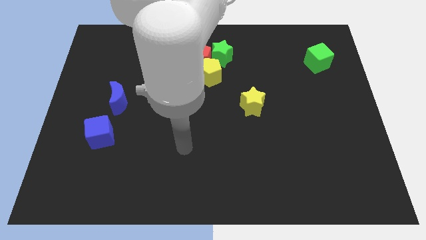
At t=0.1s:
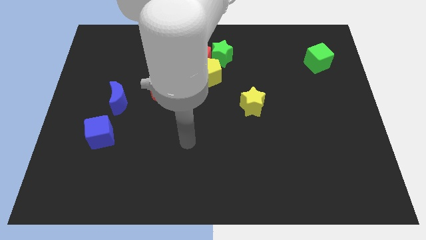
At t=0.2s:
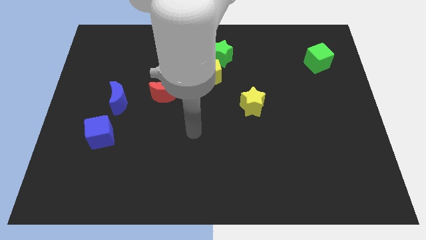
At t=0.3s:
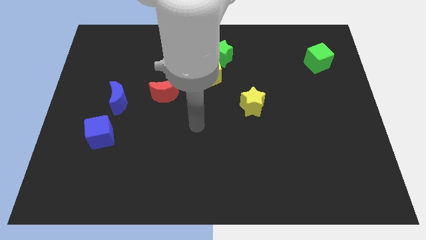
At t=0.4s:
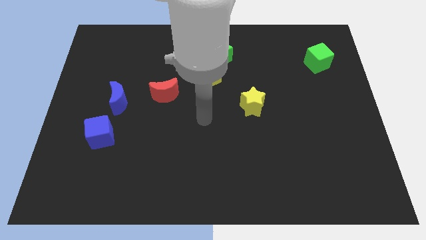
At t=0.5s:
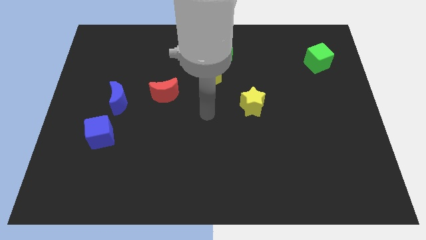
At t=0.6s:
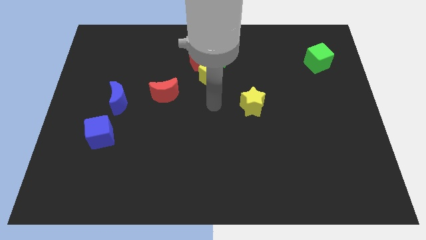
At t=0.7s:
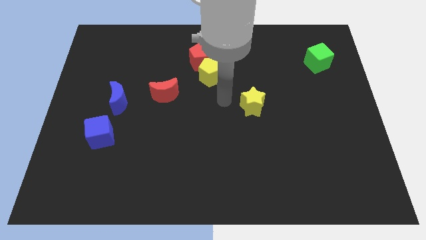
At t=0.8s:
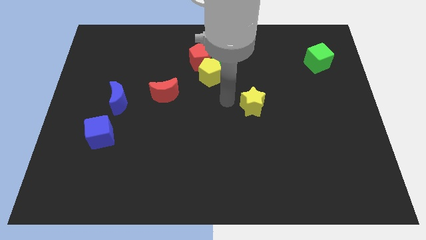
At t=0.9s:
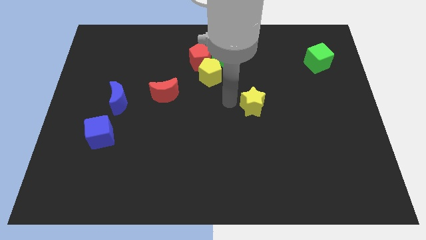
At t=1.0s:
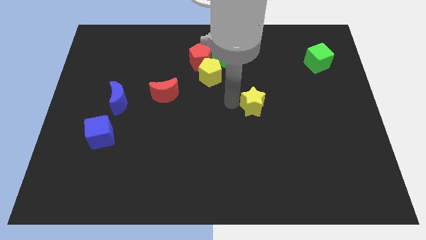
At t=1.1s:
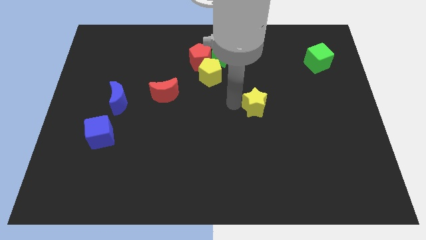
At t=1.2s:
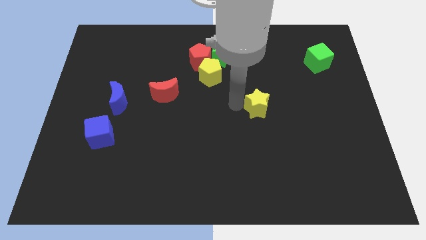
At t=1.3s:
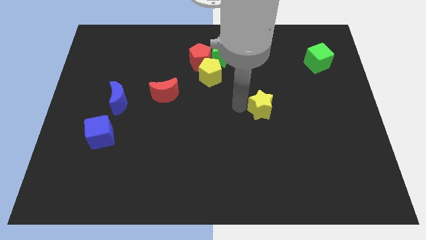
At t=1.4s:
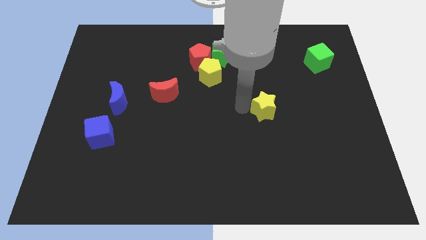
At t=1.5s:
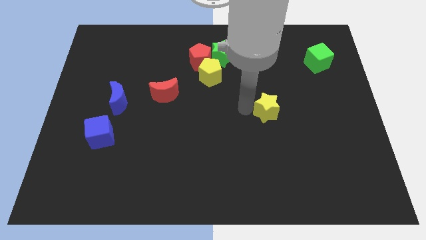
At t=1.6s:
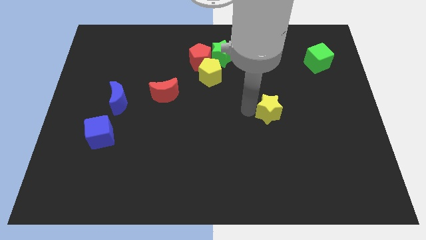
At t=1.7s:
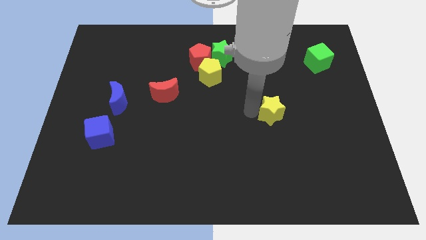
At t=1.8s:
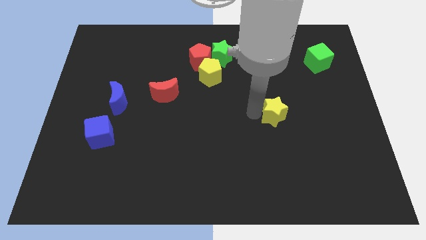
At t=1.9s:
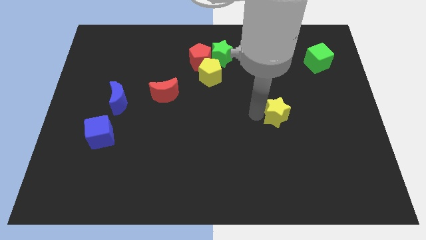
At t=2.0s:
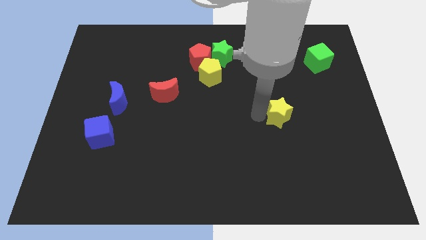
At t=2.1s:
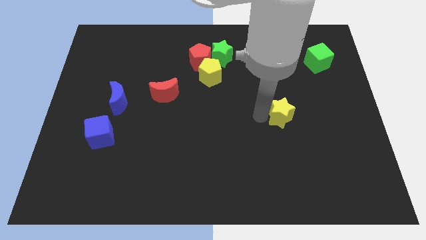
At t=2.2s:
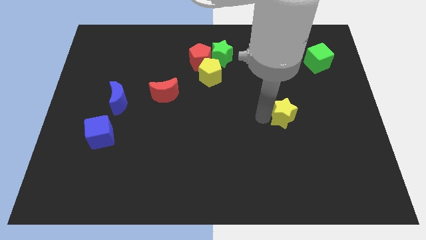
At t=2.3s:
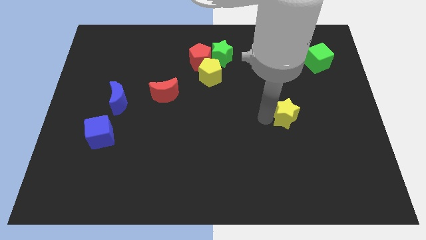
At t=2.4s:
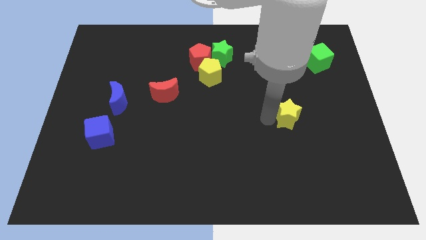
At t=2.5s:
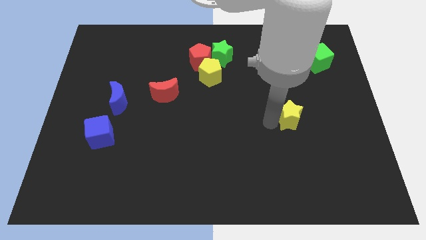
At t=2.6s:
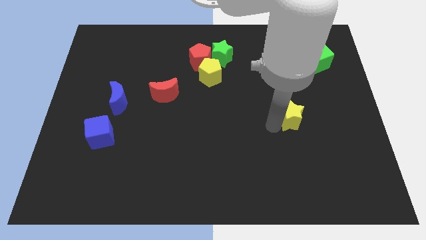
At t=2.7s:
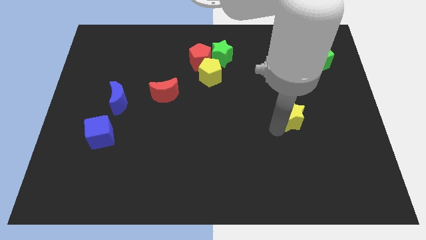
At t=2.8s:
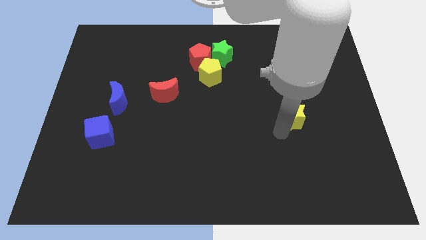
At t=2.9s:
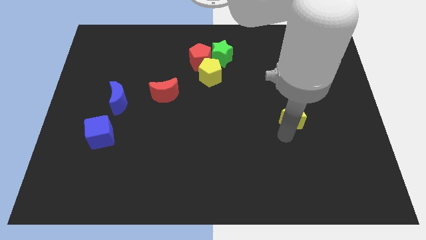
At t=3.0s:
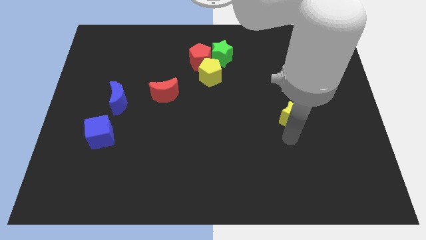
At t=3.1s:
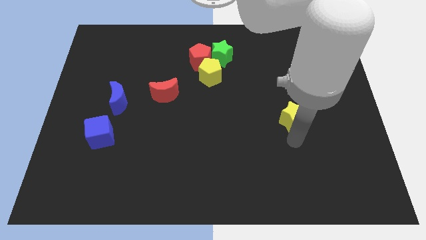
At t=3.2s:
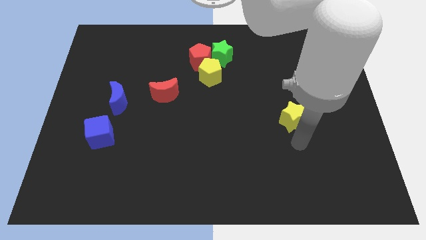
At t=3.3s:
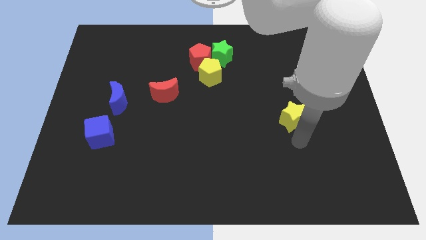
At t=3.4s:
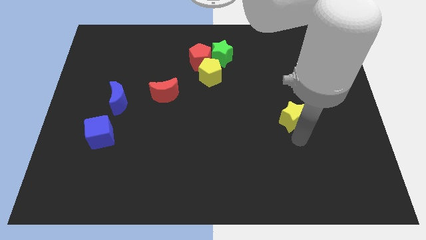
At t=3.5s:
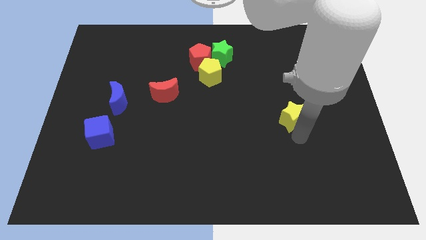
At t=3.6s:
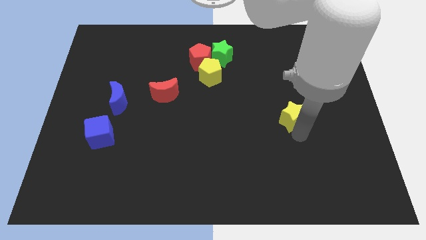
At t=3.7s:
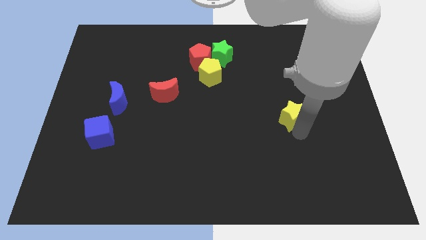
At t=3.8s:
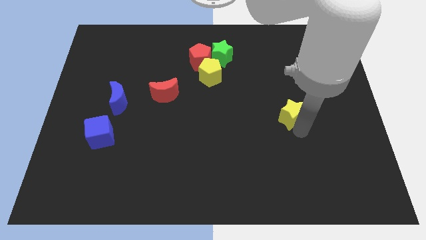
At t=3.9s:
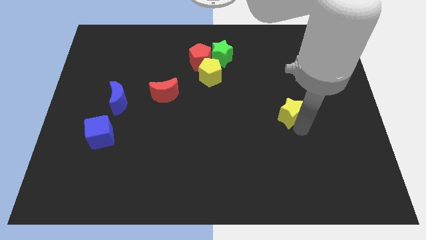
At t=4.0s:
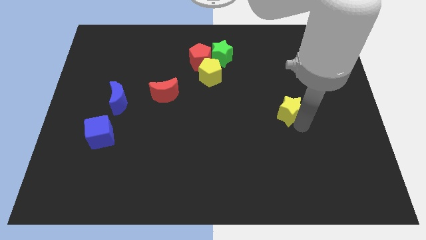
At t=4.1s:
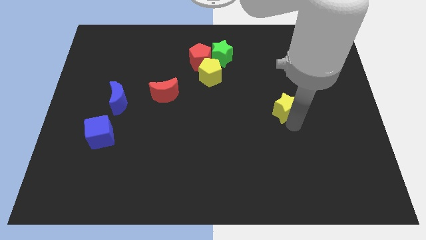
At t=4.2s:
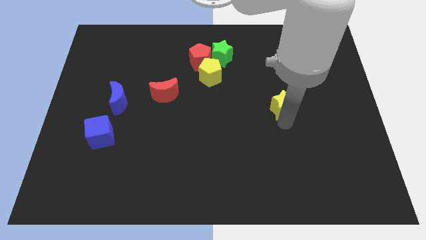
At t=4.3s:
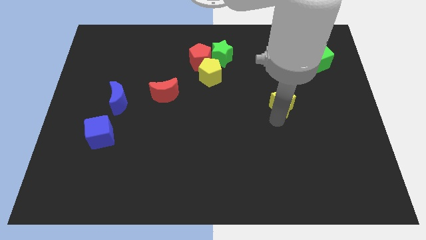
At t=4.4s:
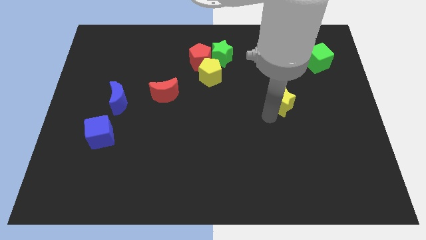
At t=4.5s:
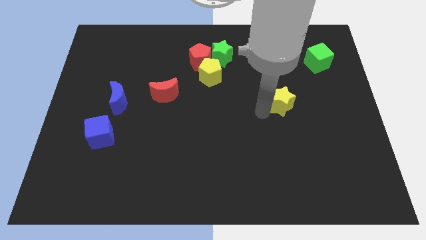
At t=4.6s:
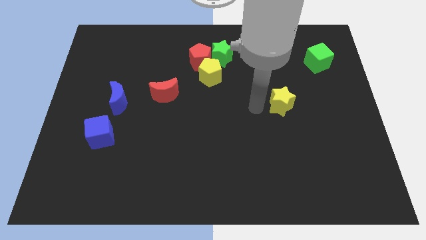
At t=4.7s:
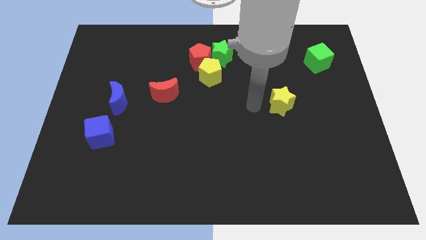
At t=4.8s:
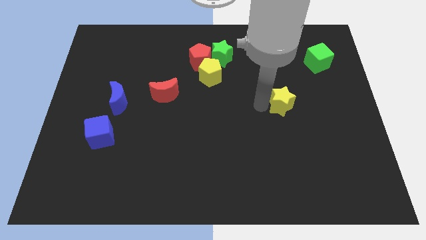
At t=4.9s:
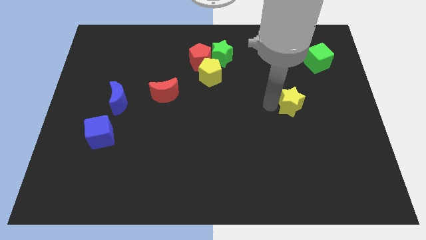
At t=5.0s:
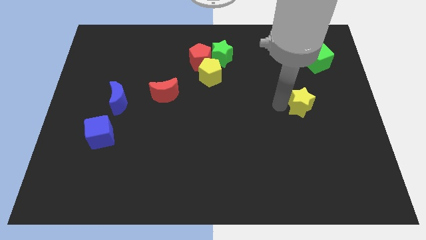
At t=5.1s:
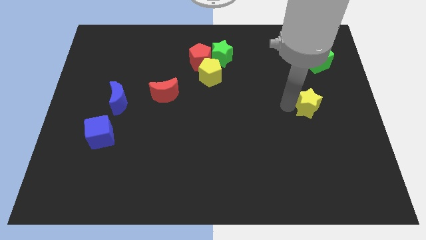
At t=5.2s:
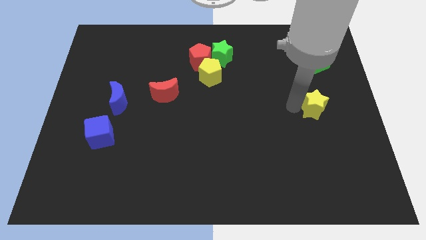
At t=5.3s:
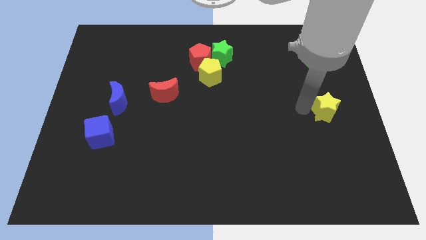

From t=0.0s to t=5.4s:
push the yellow star to the right side of the board

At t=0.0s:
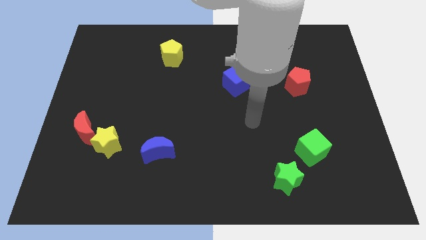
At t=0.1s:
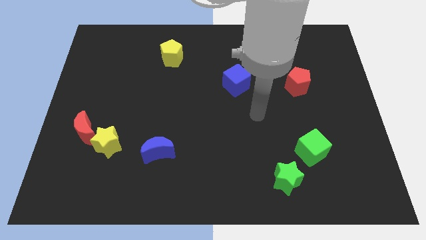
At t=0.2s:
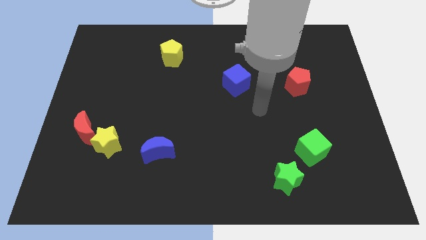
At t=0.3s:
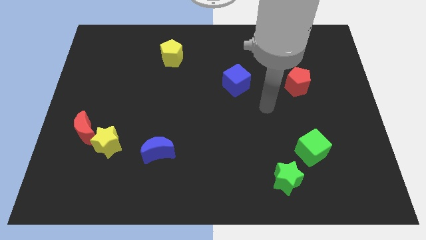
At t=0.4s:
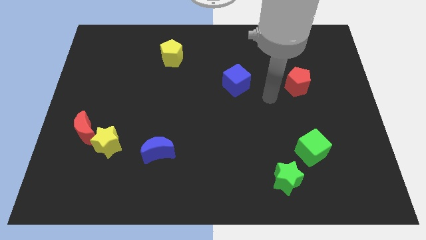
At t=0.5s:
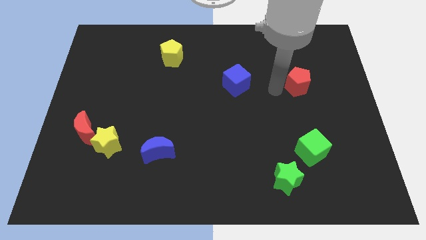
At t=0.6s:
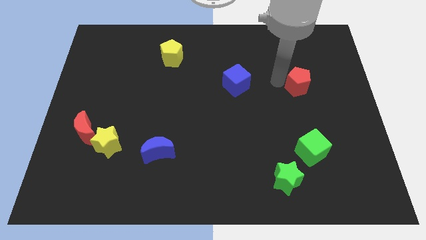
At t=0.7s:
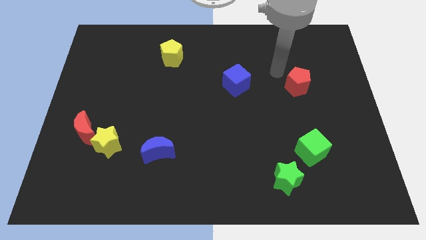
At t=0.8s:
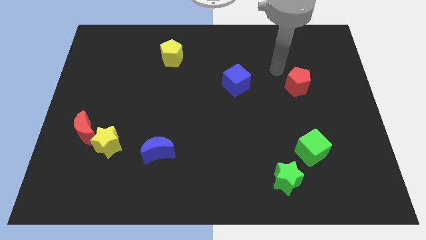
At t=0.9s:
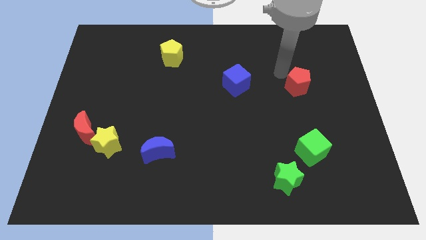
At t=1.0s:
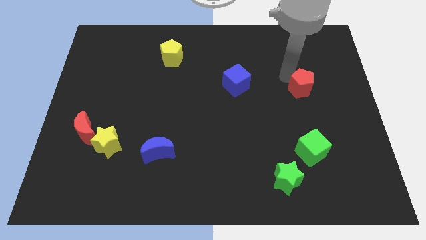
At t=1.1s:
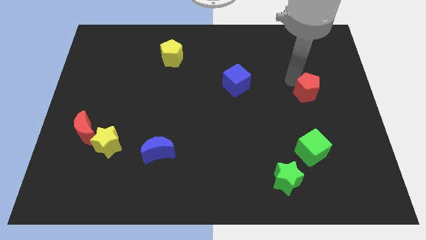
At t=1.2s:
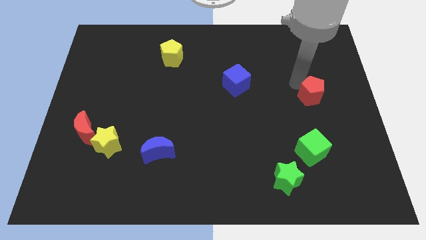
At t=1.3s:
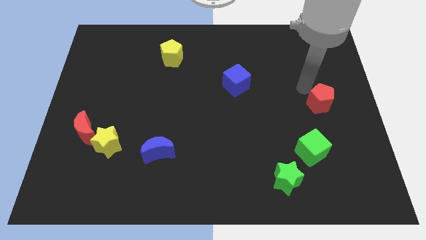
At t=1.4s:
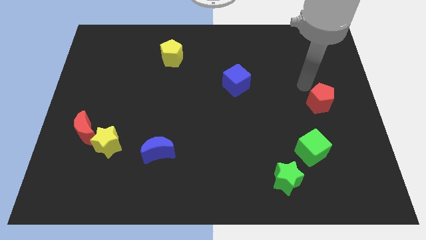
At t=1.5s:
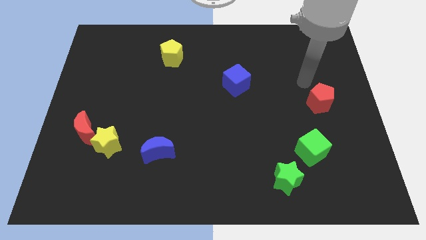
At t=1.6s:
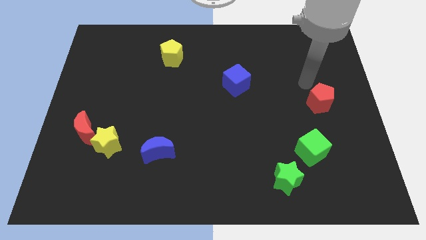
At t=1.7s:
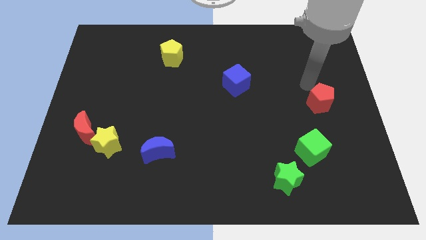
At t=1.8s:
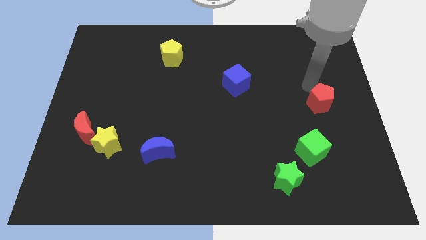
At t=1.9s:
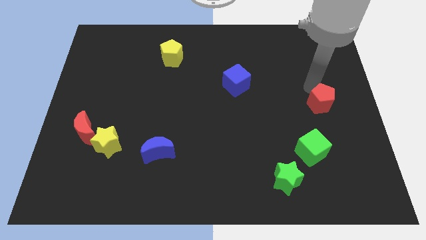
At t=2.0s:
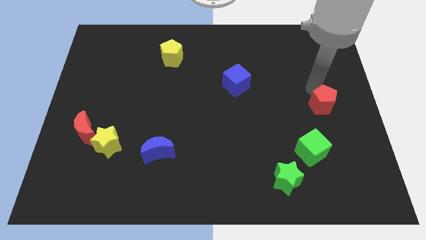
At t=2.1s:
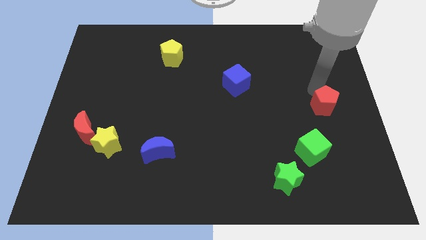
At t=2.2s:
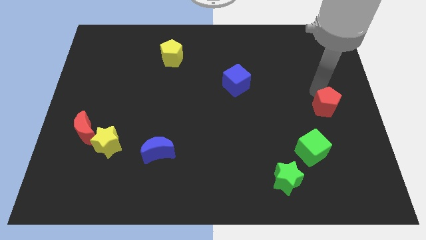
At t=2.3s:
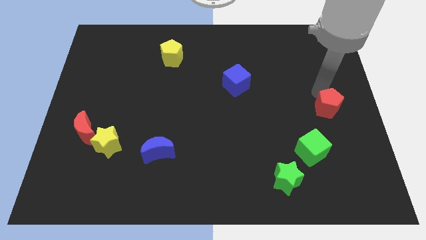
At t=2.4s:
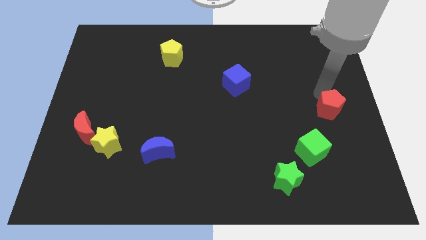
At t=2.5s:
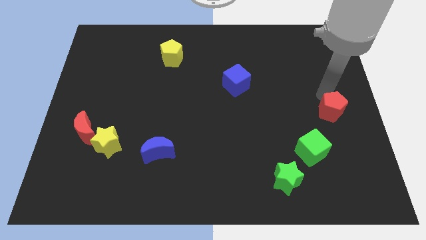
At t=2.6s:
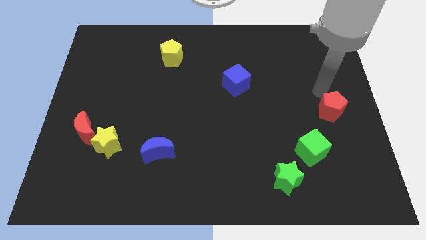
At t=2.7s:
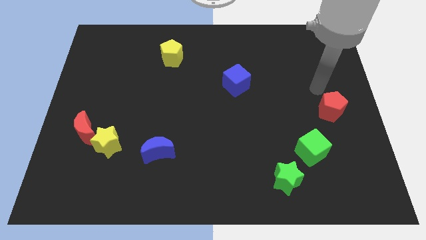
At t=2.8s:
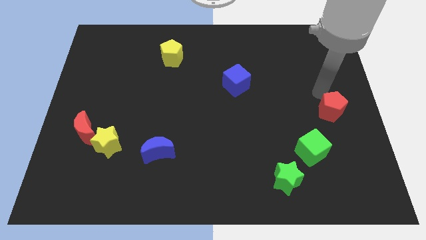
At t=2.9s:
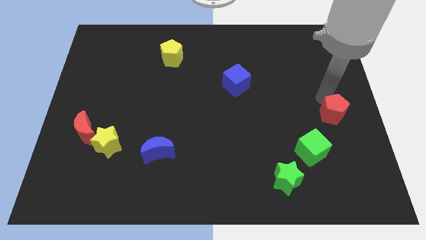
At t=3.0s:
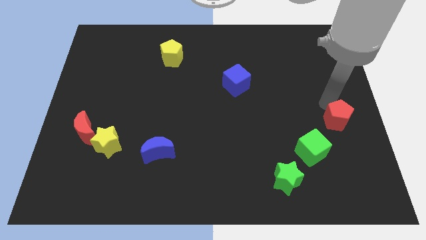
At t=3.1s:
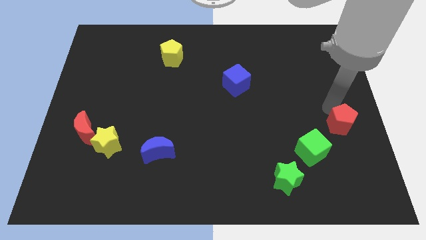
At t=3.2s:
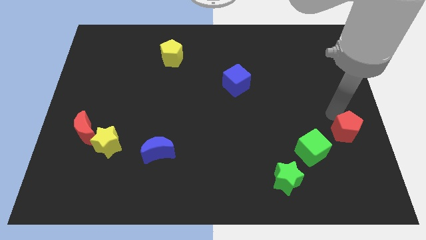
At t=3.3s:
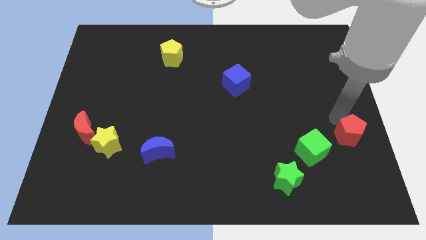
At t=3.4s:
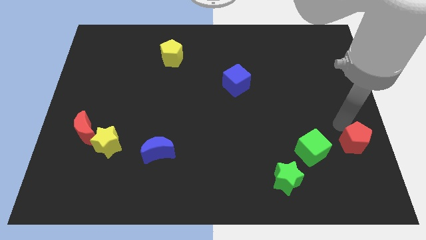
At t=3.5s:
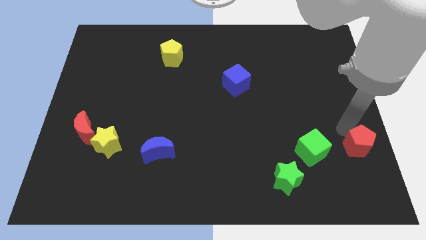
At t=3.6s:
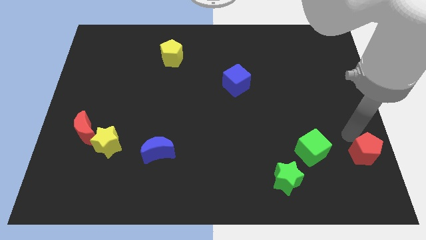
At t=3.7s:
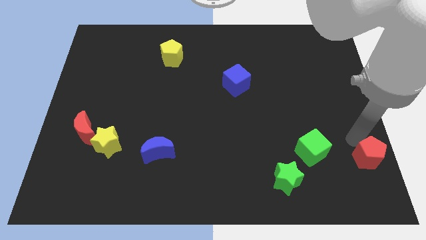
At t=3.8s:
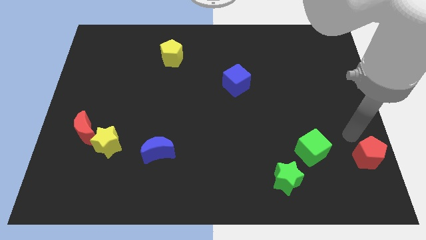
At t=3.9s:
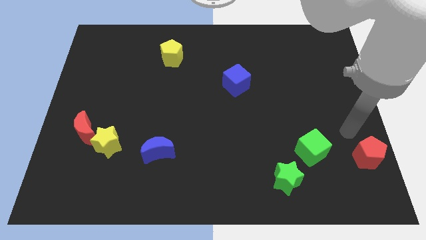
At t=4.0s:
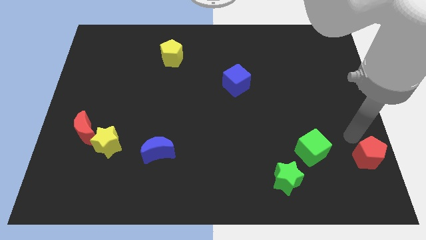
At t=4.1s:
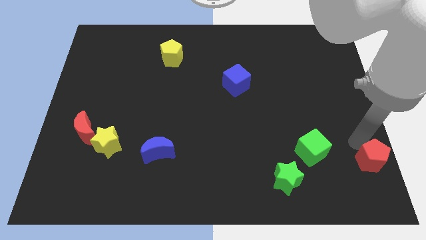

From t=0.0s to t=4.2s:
slide the red pentagon to the bottom right of the board
